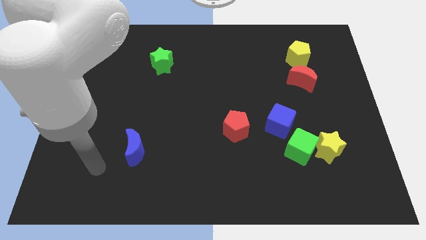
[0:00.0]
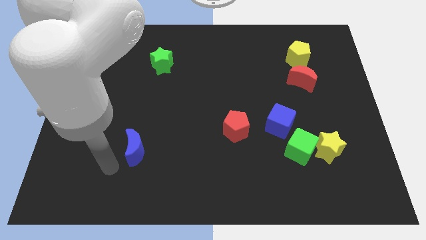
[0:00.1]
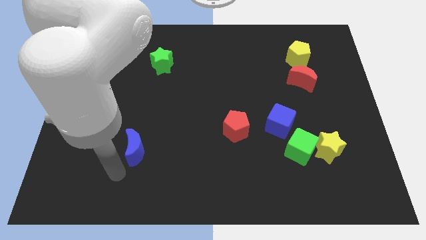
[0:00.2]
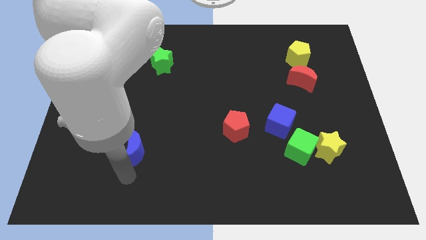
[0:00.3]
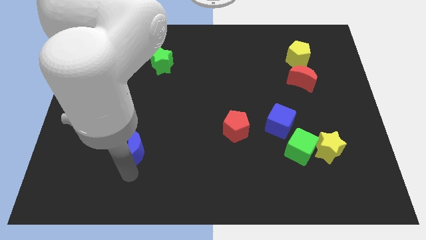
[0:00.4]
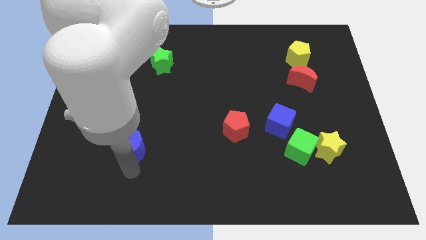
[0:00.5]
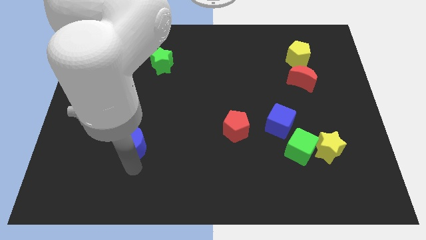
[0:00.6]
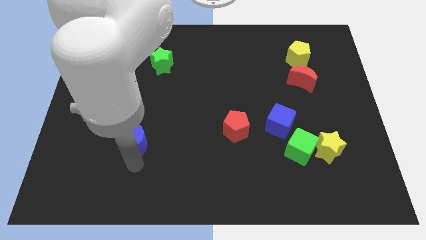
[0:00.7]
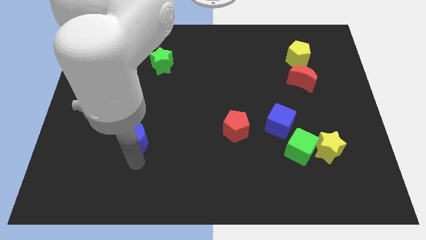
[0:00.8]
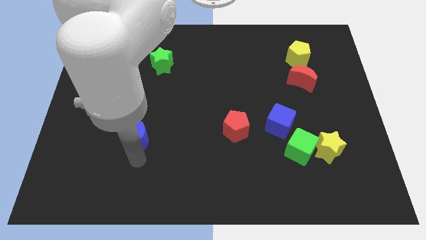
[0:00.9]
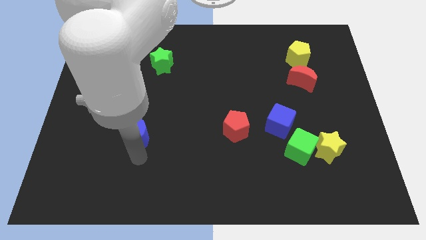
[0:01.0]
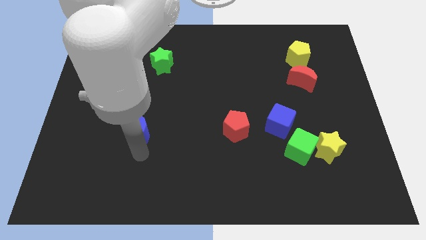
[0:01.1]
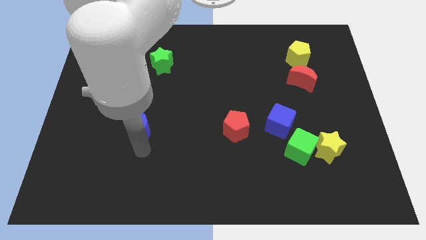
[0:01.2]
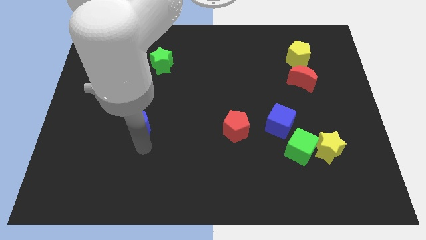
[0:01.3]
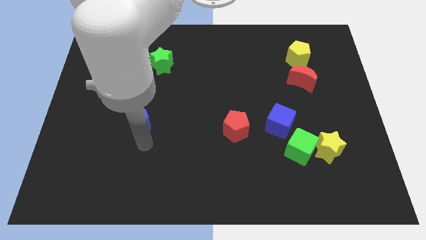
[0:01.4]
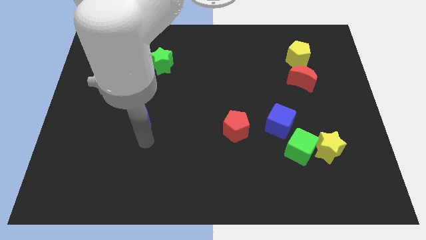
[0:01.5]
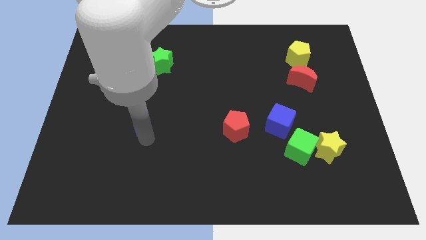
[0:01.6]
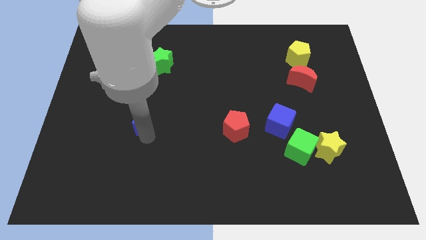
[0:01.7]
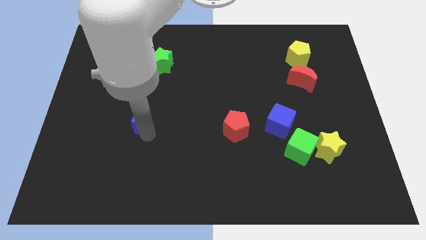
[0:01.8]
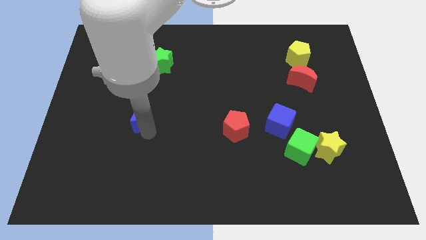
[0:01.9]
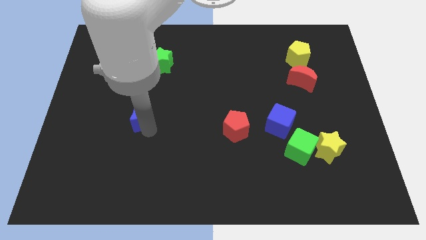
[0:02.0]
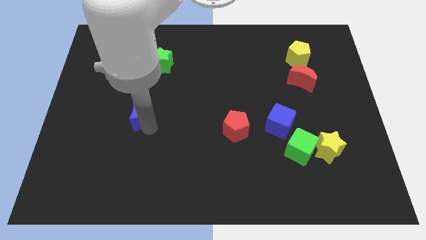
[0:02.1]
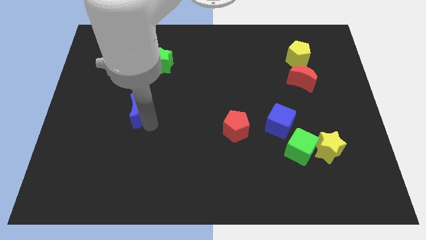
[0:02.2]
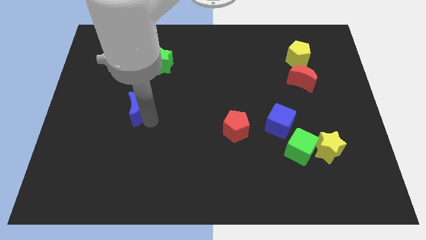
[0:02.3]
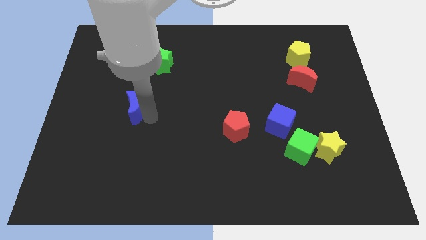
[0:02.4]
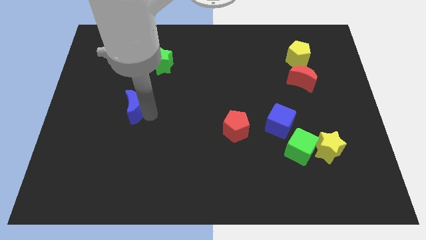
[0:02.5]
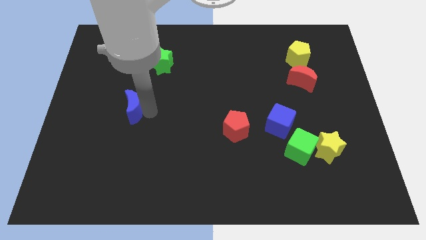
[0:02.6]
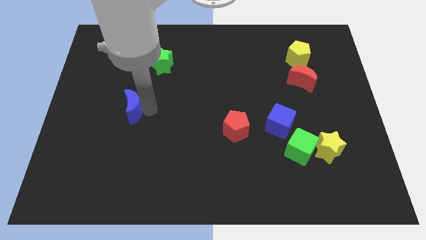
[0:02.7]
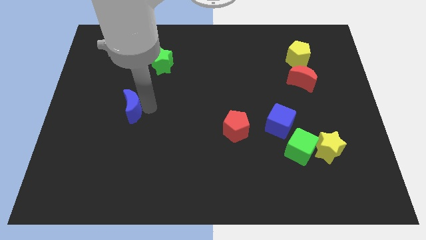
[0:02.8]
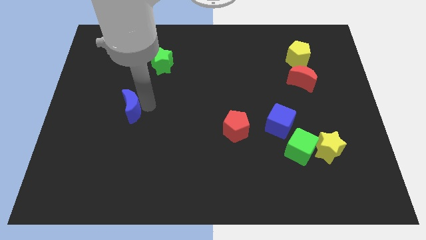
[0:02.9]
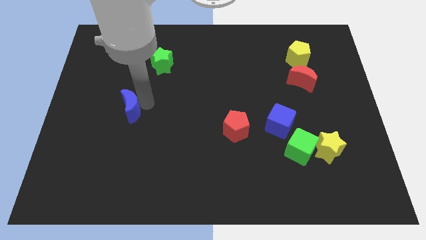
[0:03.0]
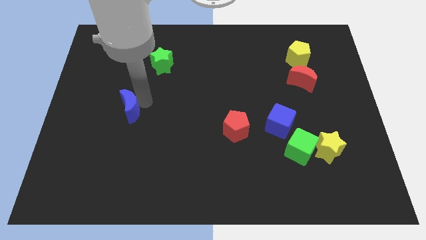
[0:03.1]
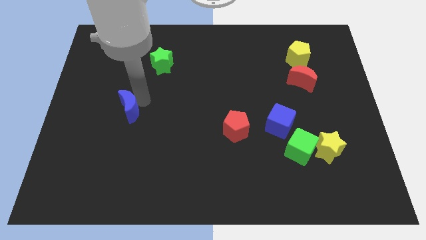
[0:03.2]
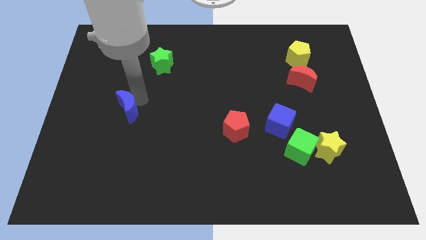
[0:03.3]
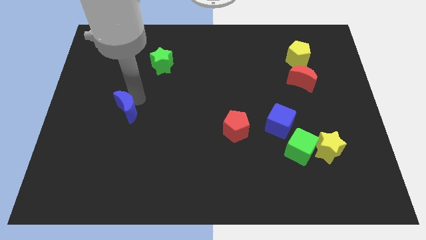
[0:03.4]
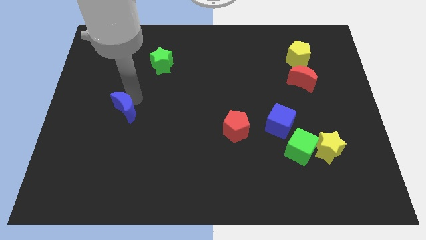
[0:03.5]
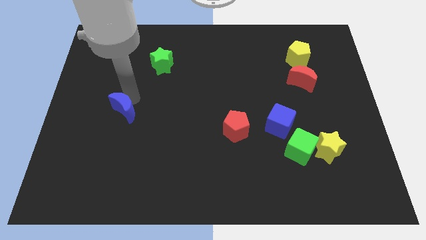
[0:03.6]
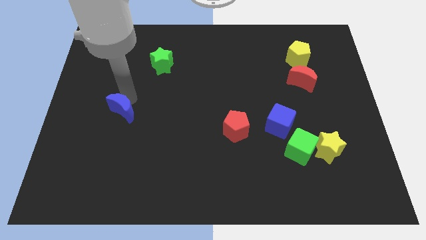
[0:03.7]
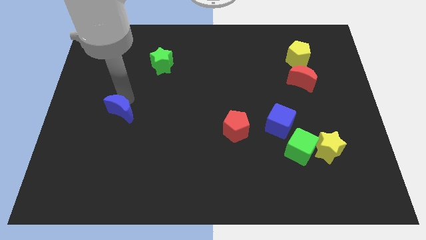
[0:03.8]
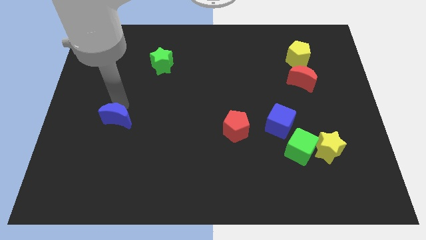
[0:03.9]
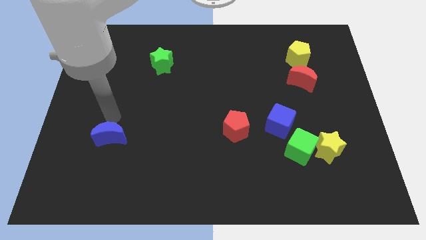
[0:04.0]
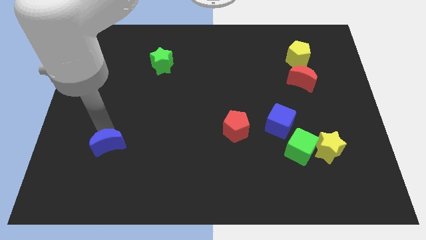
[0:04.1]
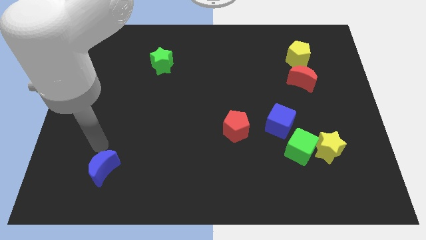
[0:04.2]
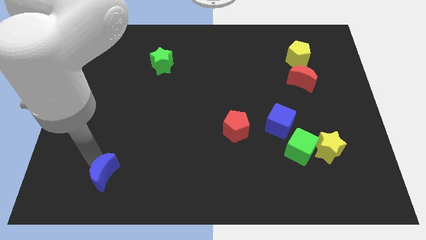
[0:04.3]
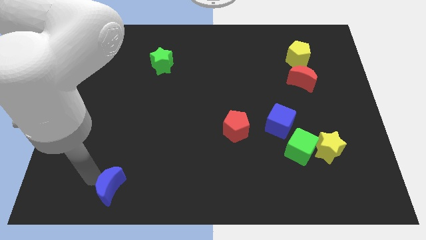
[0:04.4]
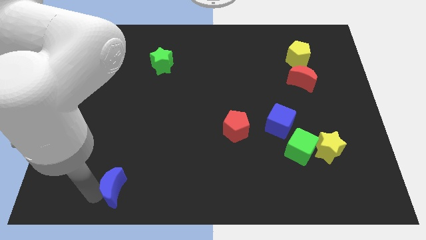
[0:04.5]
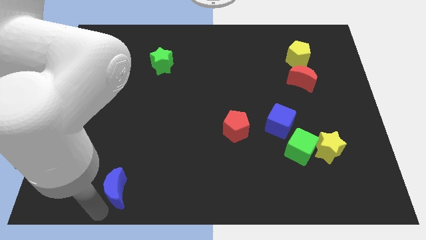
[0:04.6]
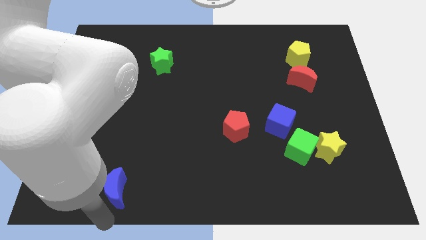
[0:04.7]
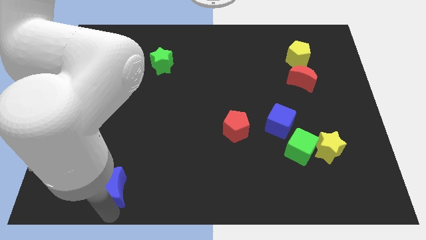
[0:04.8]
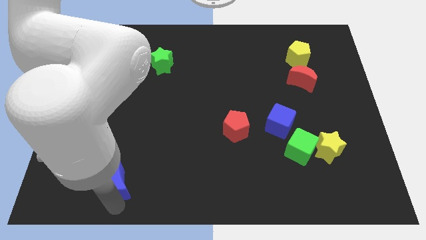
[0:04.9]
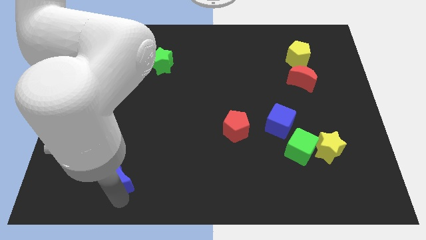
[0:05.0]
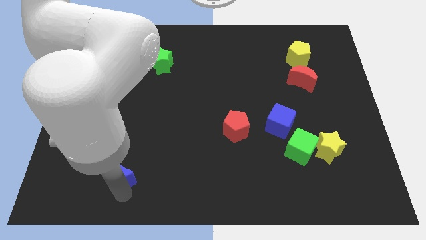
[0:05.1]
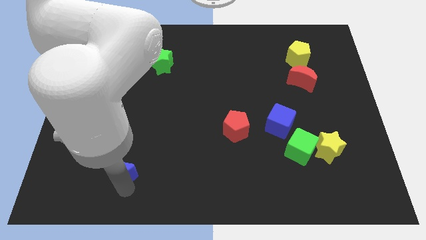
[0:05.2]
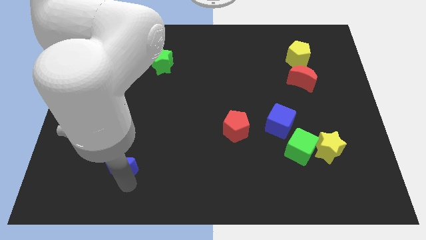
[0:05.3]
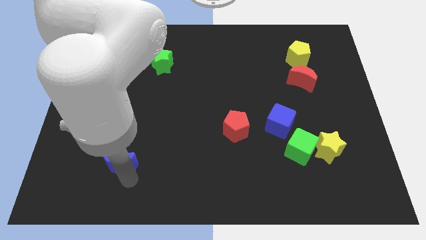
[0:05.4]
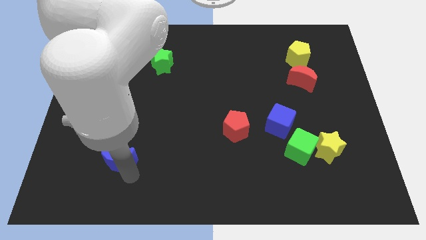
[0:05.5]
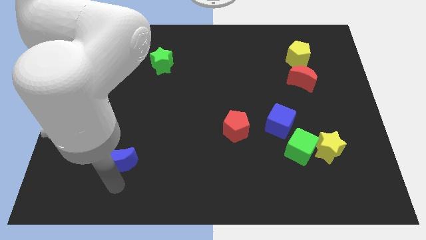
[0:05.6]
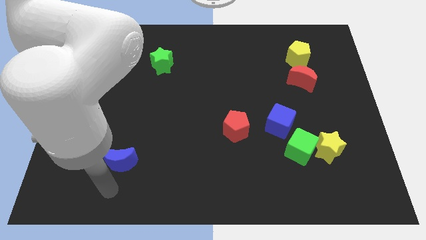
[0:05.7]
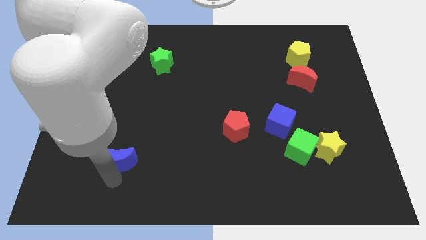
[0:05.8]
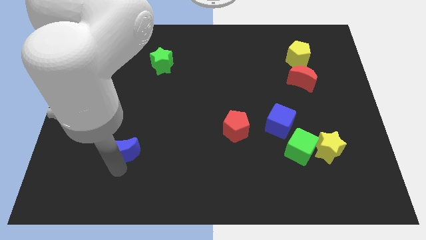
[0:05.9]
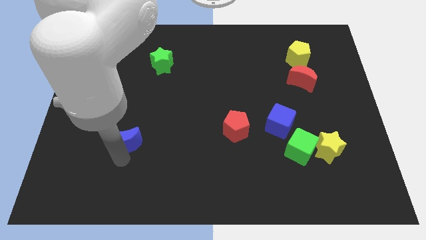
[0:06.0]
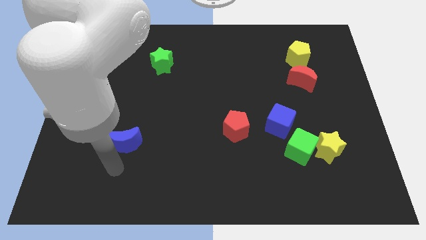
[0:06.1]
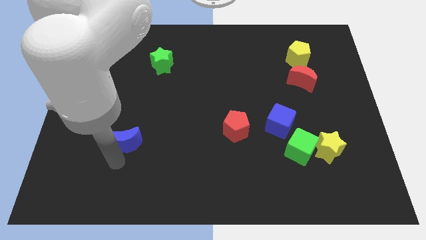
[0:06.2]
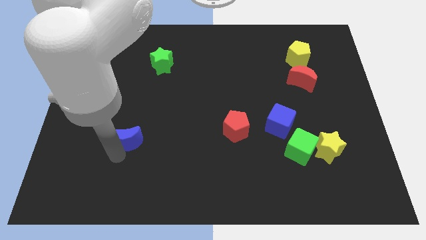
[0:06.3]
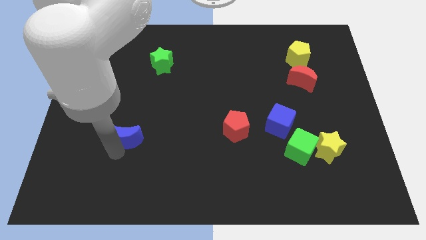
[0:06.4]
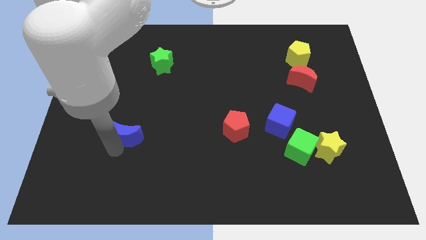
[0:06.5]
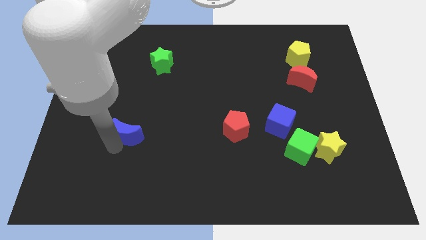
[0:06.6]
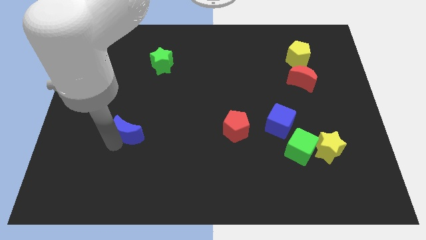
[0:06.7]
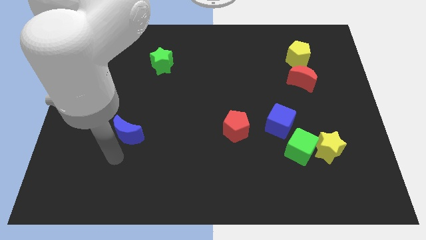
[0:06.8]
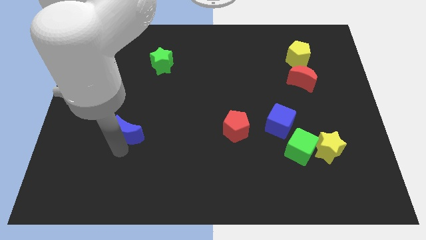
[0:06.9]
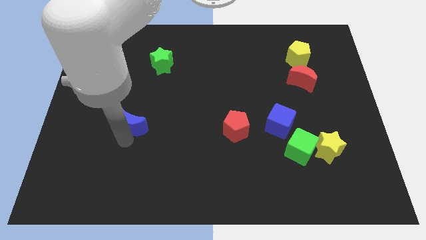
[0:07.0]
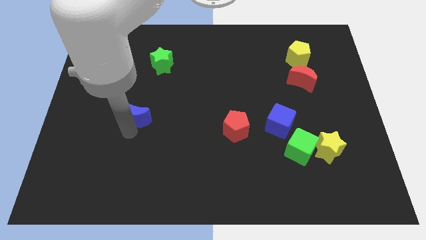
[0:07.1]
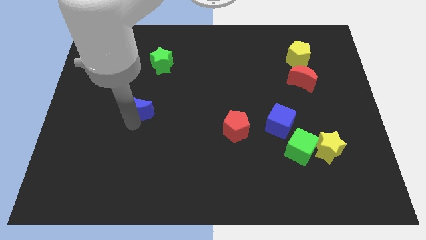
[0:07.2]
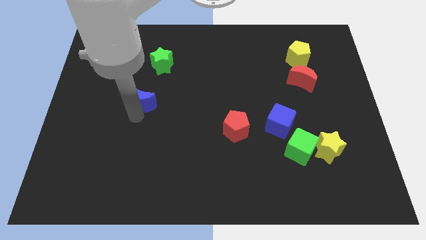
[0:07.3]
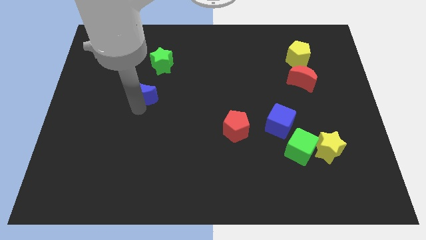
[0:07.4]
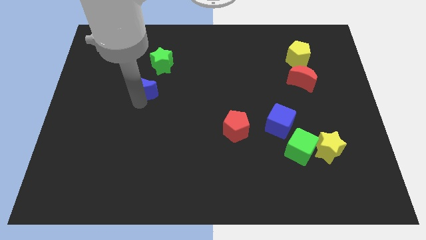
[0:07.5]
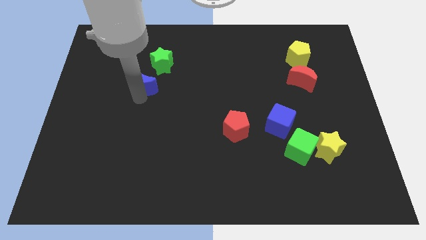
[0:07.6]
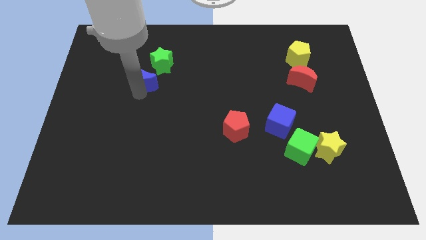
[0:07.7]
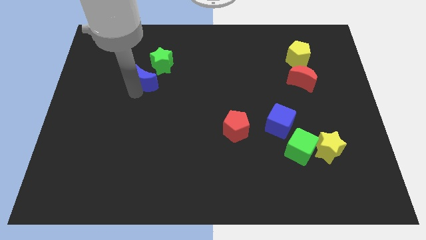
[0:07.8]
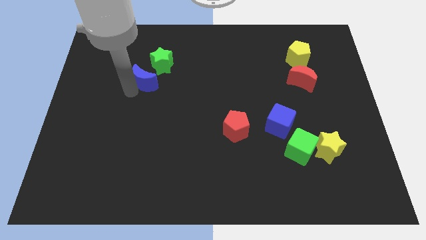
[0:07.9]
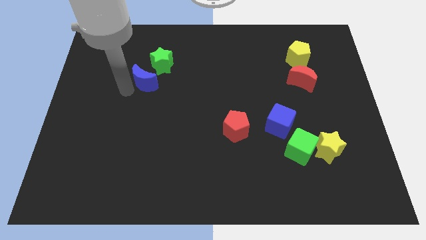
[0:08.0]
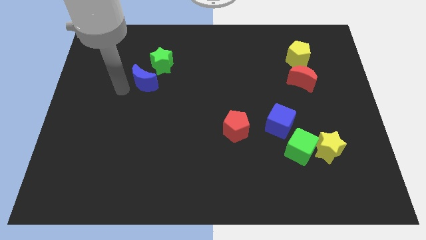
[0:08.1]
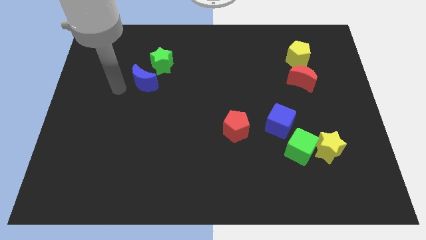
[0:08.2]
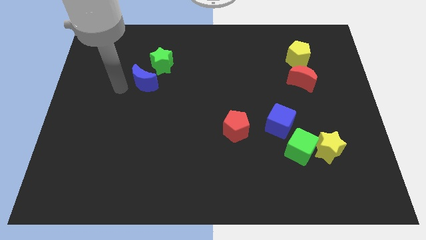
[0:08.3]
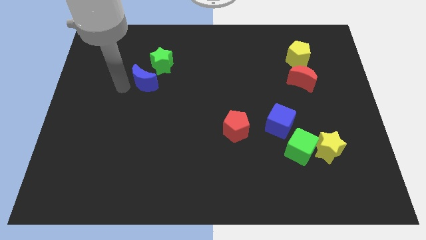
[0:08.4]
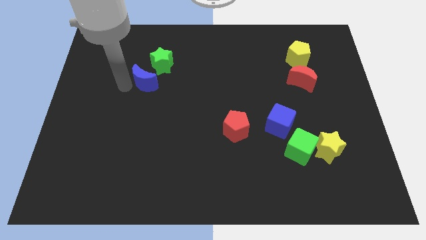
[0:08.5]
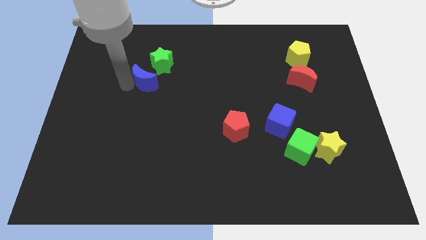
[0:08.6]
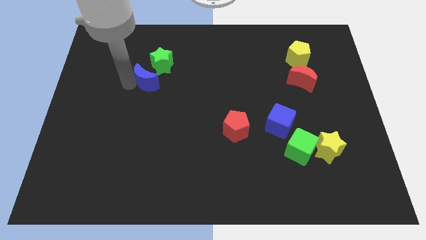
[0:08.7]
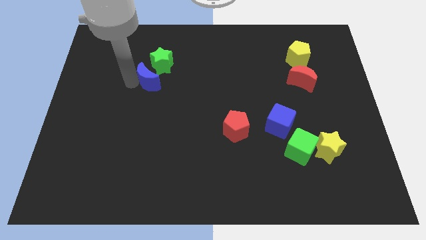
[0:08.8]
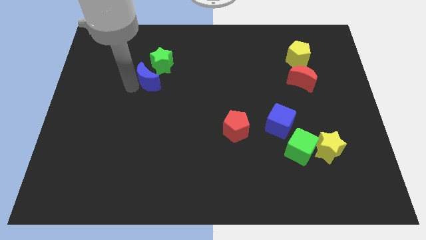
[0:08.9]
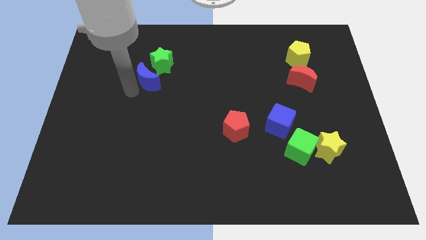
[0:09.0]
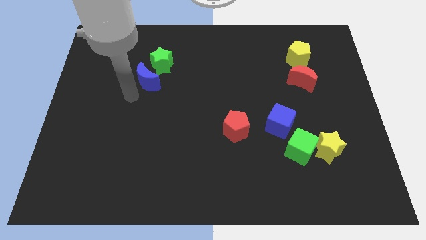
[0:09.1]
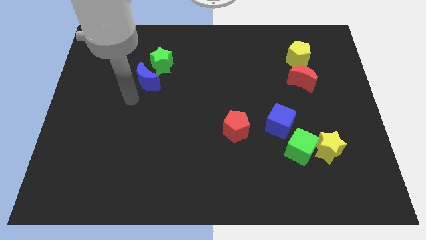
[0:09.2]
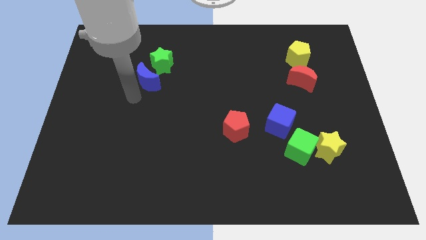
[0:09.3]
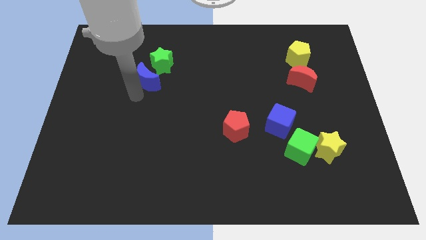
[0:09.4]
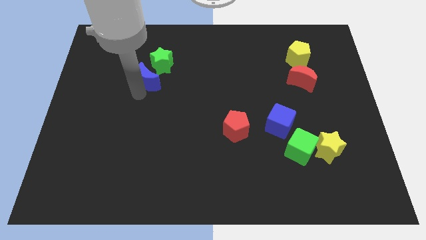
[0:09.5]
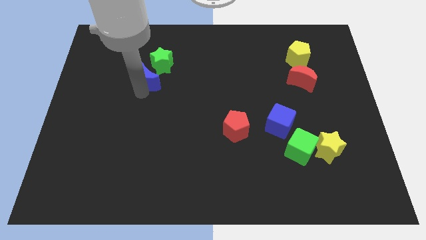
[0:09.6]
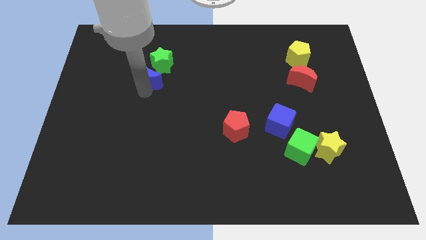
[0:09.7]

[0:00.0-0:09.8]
move the blue moon to the green star
